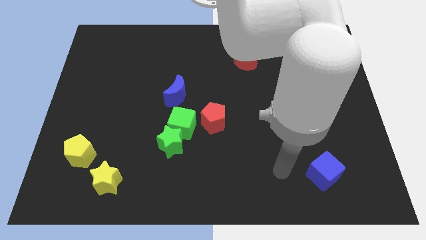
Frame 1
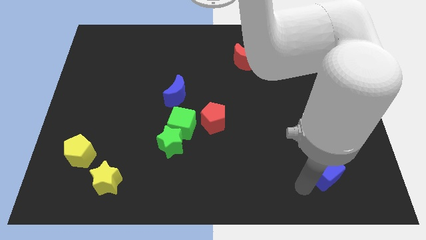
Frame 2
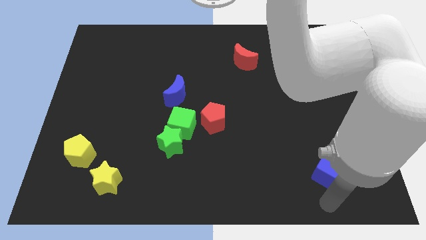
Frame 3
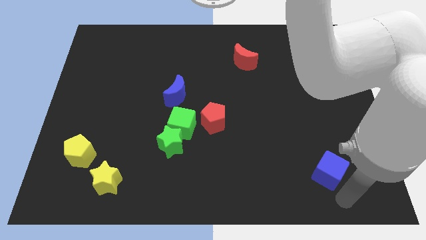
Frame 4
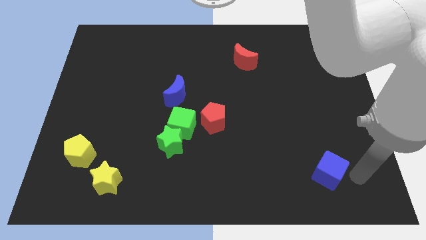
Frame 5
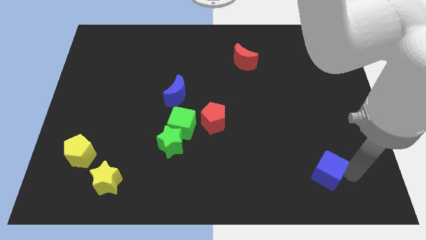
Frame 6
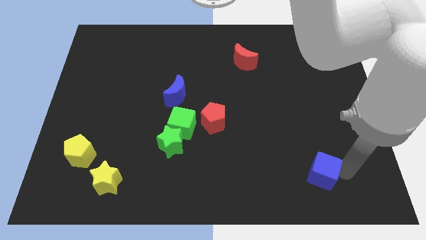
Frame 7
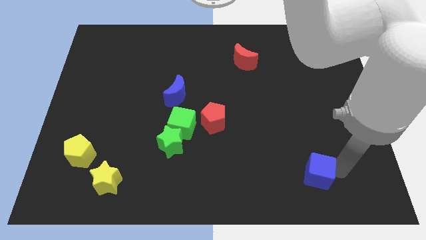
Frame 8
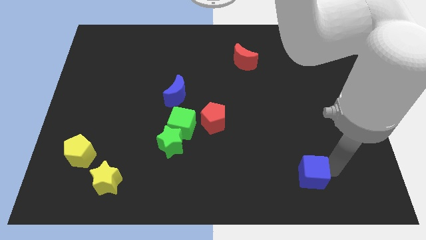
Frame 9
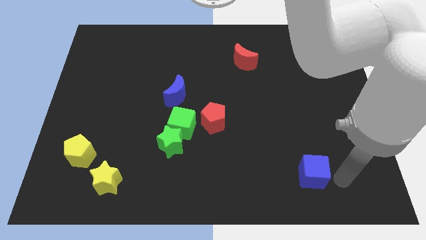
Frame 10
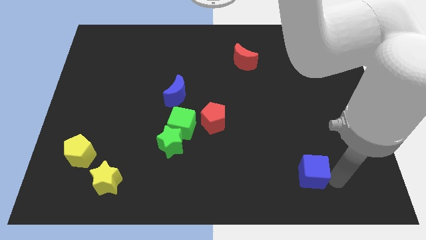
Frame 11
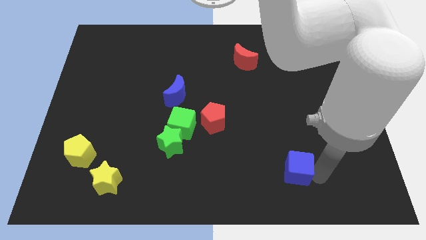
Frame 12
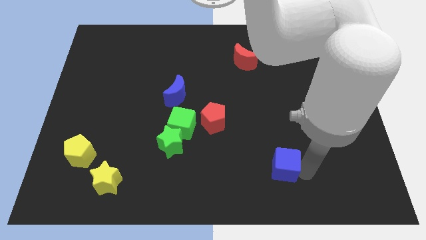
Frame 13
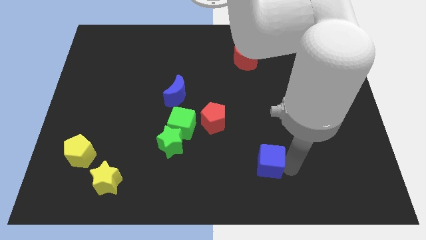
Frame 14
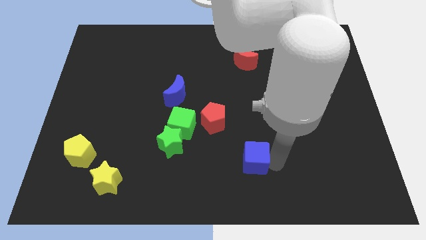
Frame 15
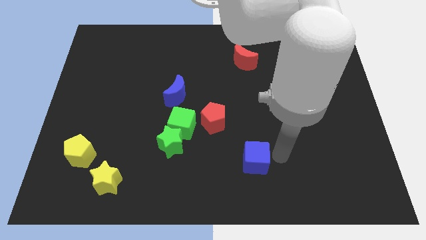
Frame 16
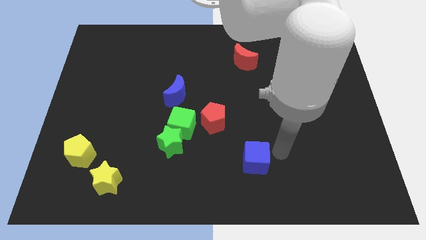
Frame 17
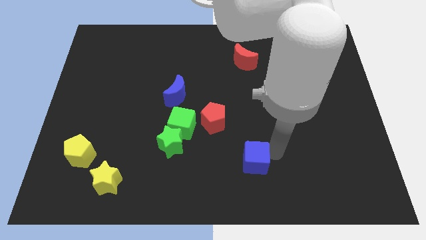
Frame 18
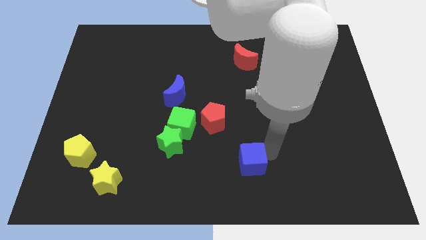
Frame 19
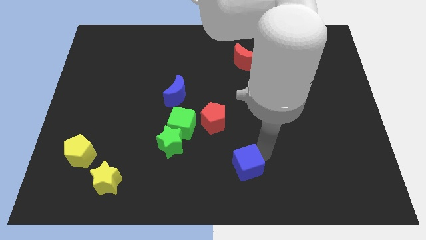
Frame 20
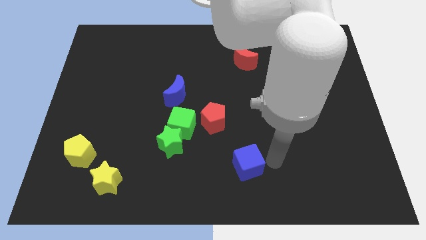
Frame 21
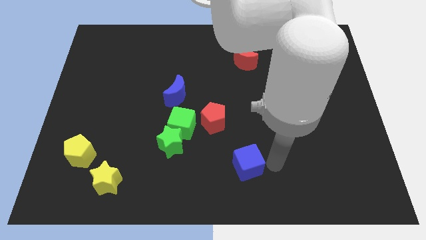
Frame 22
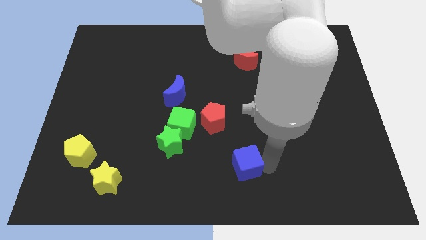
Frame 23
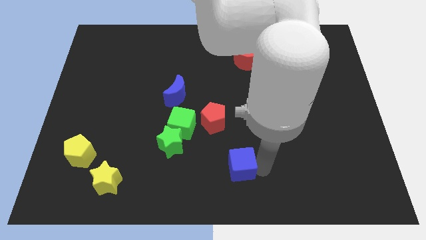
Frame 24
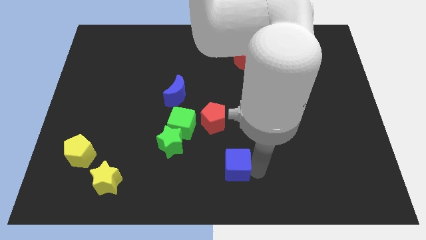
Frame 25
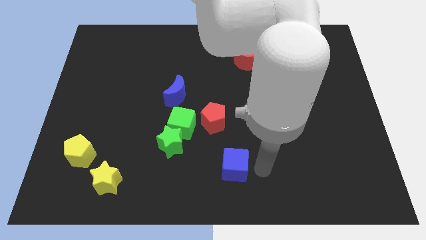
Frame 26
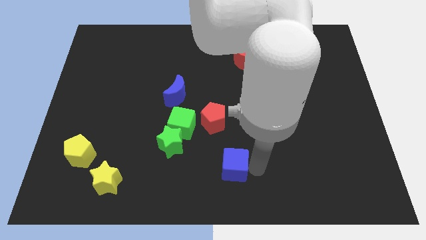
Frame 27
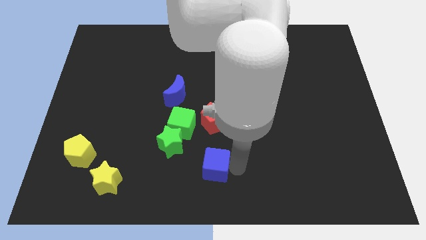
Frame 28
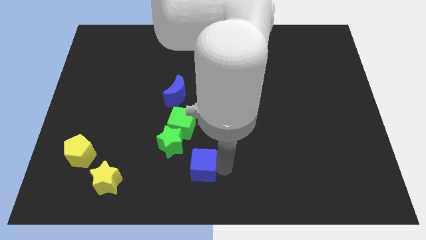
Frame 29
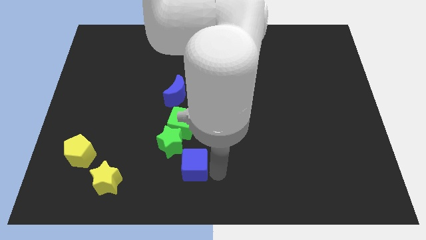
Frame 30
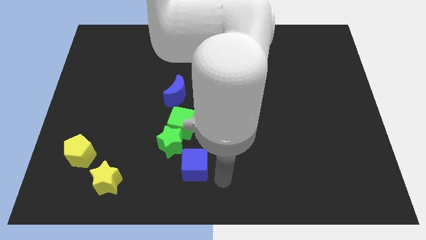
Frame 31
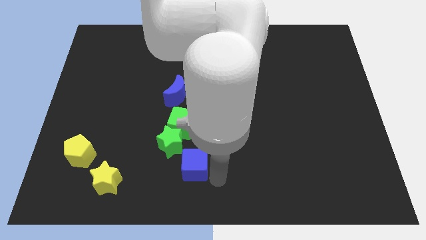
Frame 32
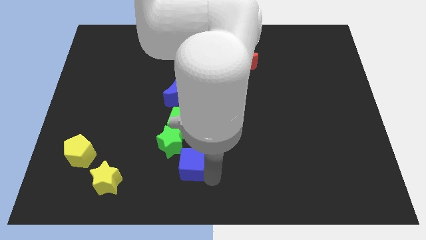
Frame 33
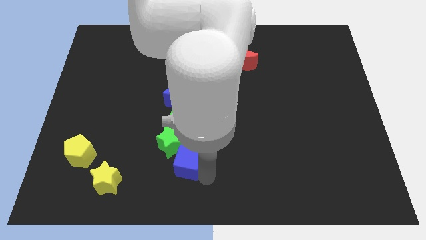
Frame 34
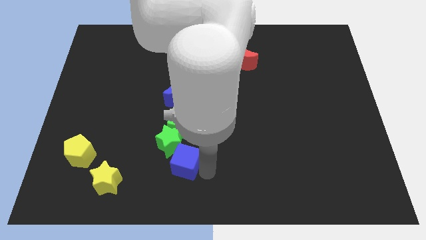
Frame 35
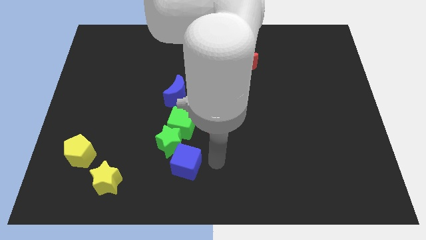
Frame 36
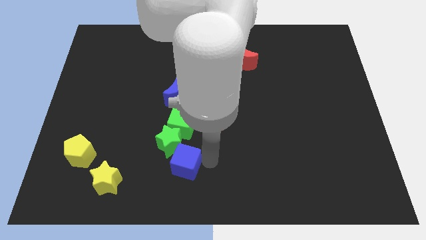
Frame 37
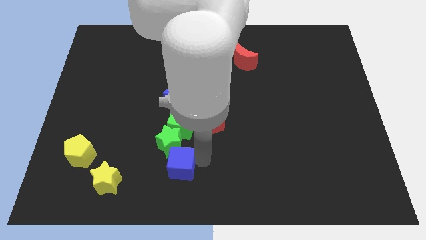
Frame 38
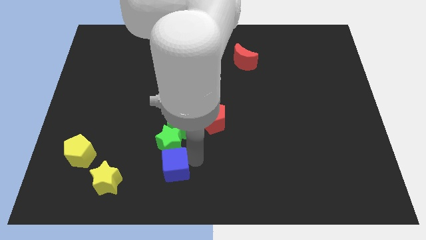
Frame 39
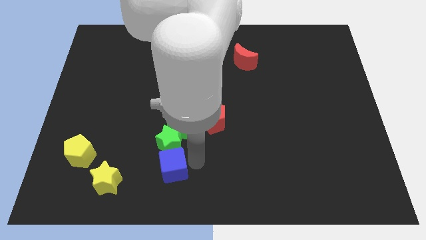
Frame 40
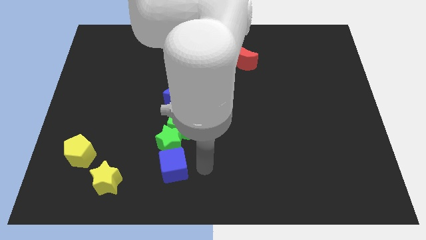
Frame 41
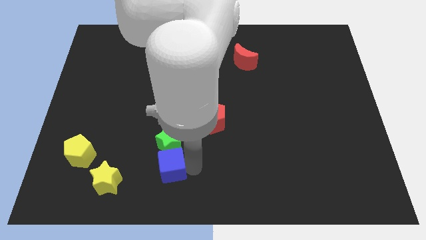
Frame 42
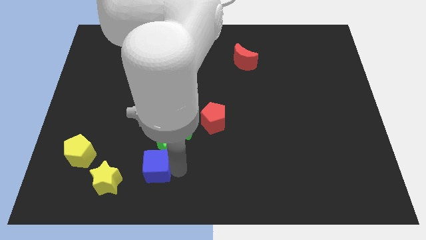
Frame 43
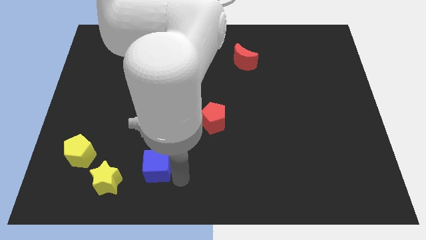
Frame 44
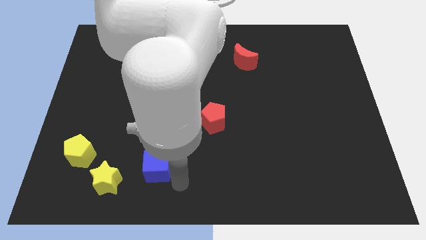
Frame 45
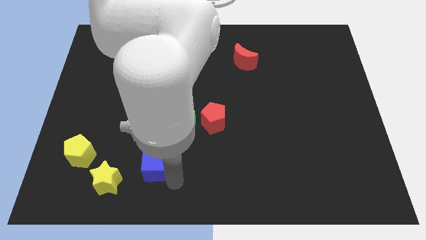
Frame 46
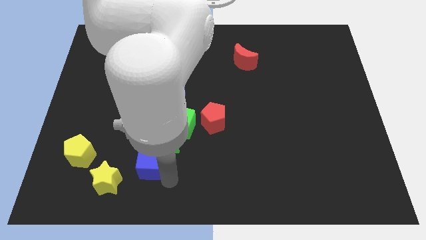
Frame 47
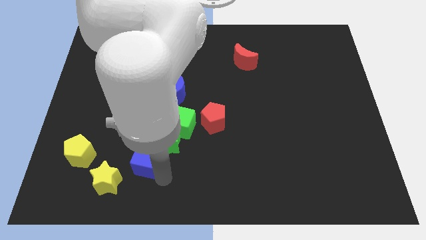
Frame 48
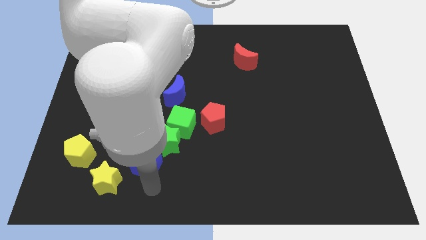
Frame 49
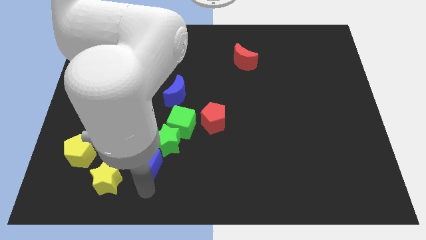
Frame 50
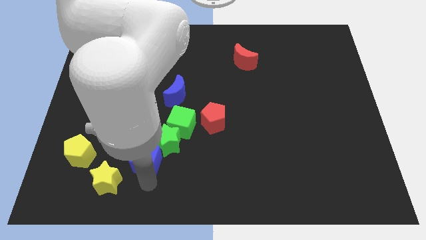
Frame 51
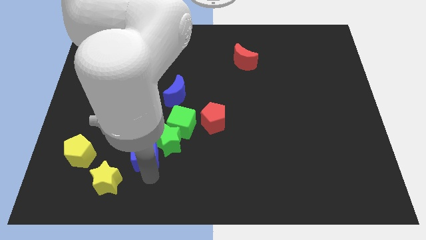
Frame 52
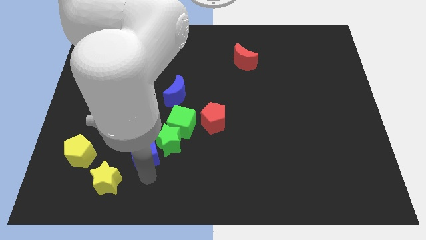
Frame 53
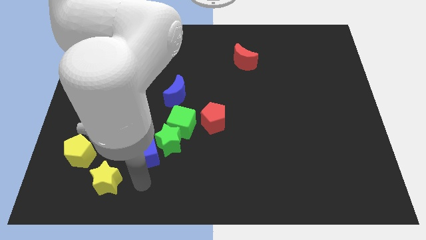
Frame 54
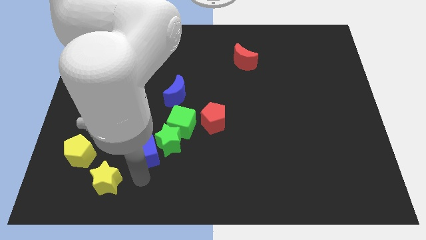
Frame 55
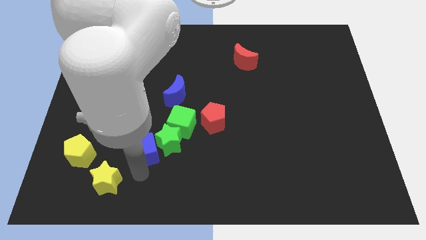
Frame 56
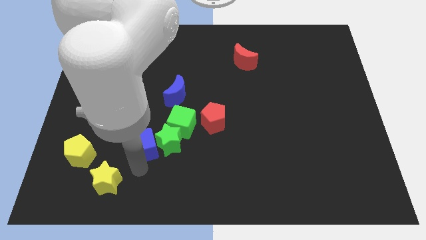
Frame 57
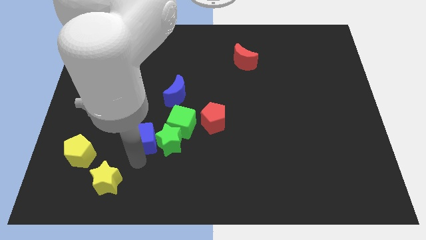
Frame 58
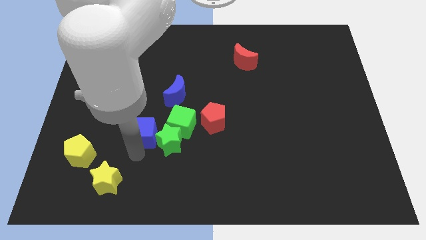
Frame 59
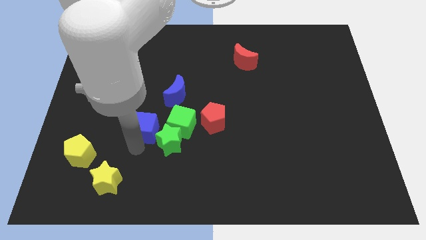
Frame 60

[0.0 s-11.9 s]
slide the blue cube to the bottom left side of the blue moon

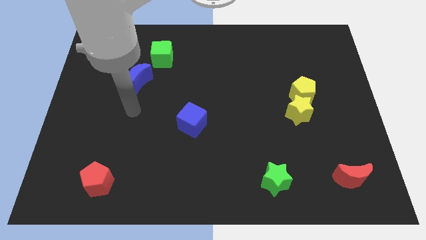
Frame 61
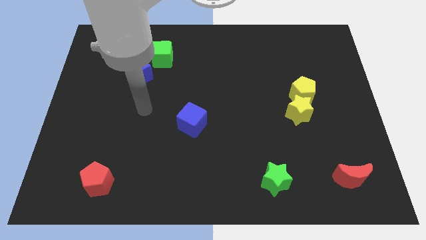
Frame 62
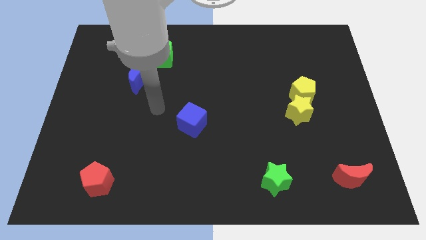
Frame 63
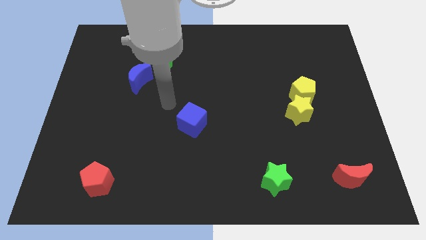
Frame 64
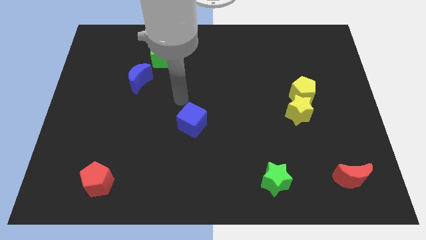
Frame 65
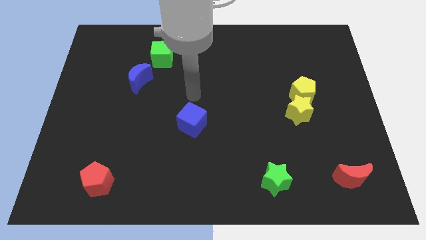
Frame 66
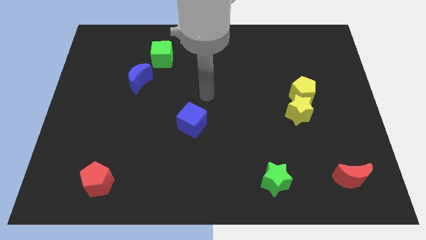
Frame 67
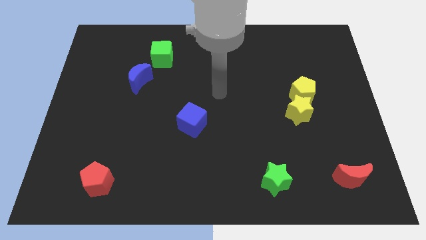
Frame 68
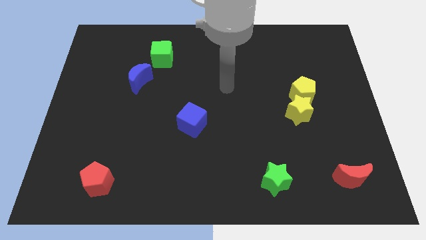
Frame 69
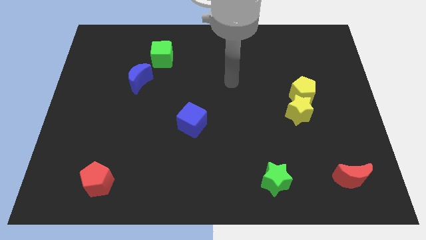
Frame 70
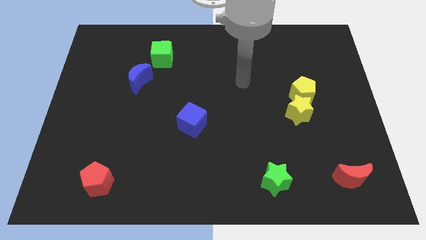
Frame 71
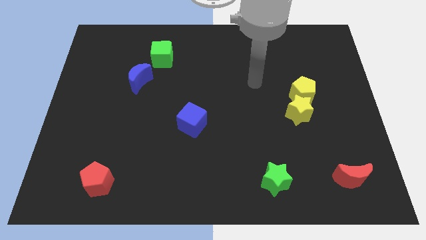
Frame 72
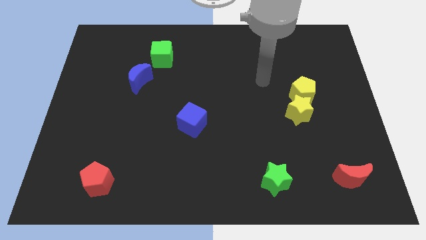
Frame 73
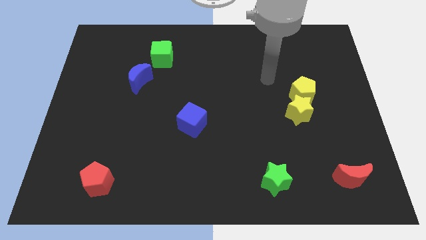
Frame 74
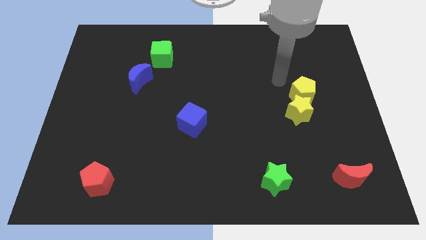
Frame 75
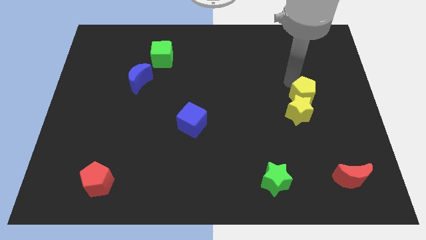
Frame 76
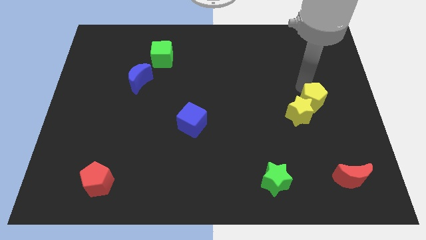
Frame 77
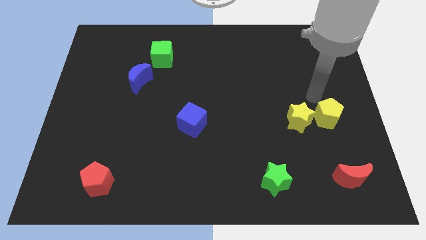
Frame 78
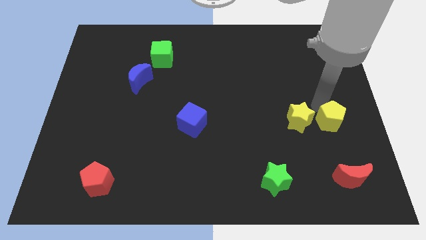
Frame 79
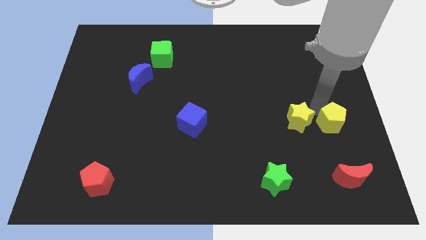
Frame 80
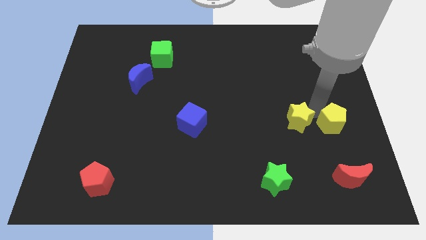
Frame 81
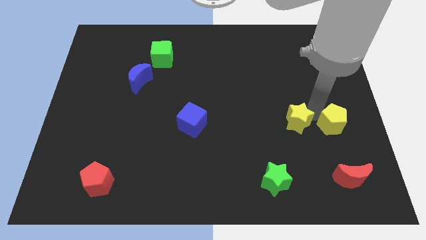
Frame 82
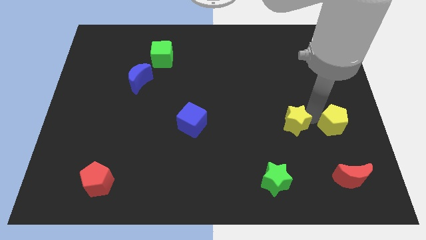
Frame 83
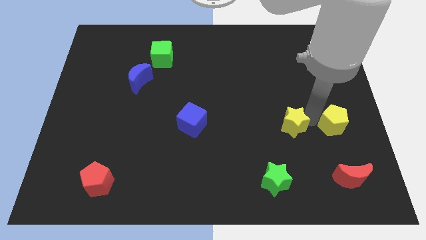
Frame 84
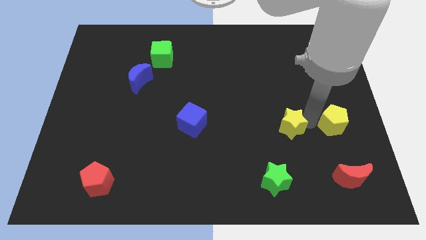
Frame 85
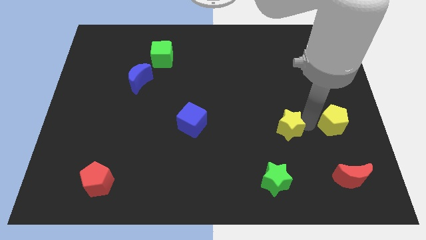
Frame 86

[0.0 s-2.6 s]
move the yellow star to the top side of the green star
